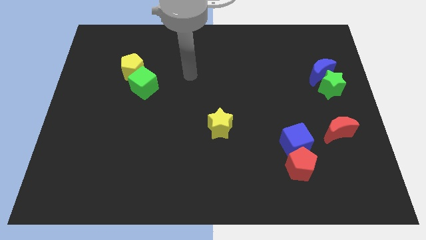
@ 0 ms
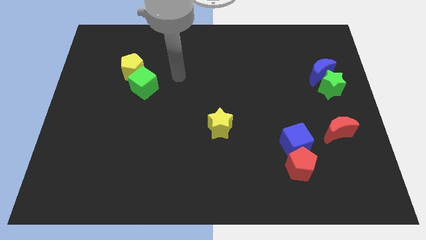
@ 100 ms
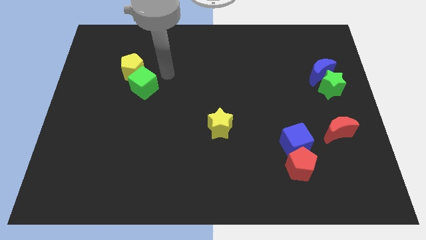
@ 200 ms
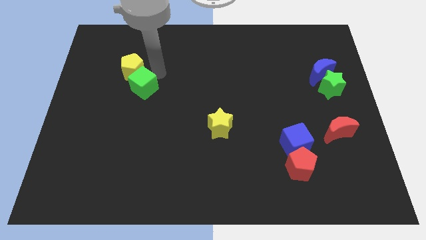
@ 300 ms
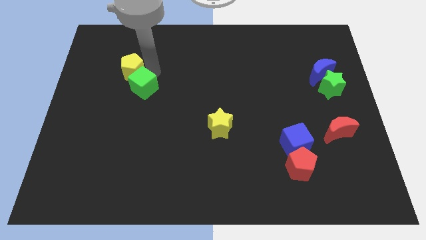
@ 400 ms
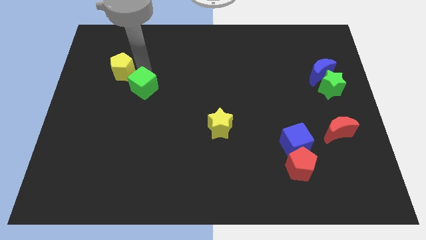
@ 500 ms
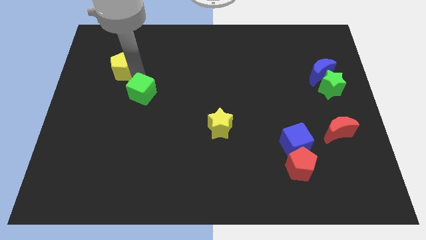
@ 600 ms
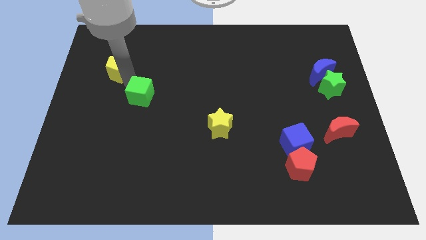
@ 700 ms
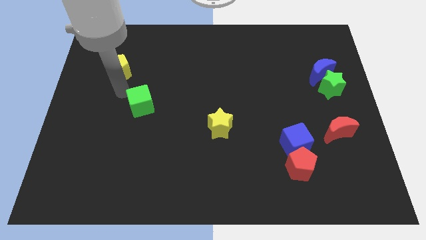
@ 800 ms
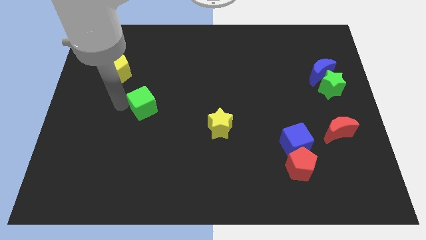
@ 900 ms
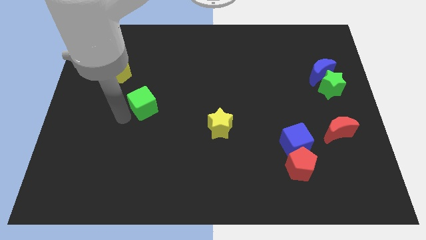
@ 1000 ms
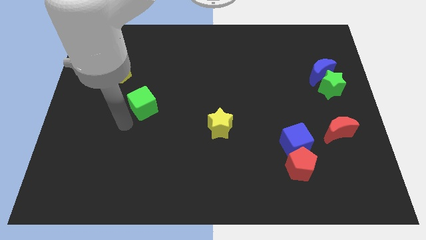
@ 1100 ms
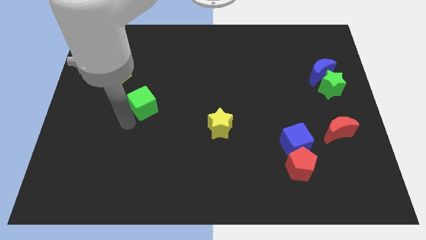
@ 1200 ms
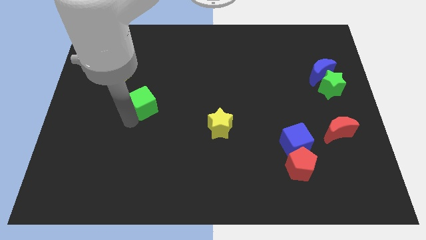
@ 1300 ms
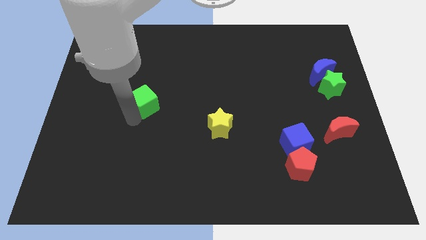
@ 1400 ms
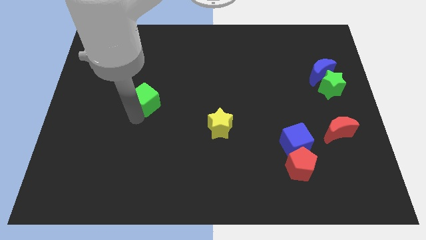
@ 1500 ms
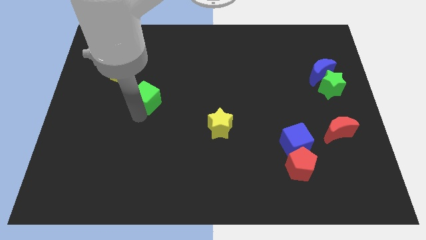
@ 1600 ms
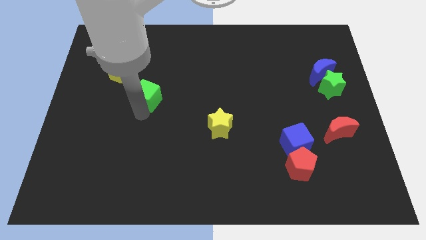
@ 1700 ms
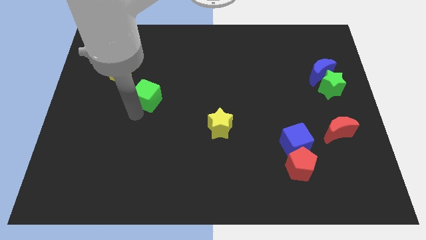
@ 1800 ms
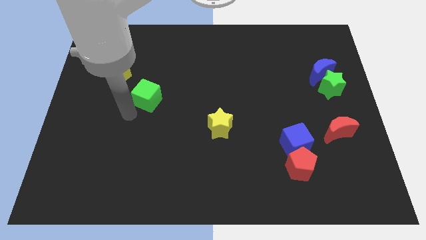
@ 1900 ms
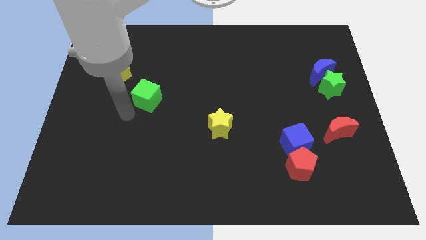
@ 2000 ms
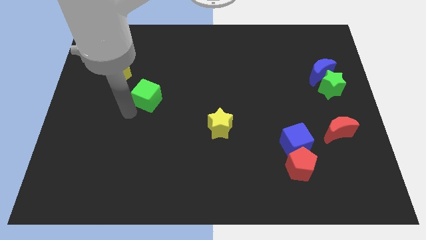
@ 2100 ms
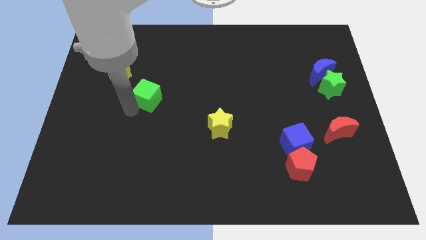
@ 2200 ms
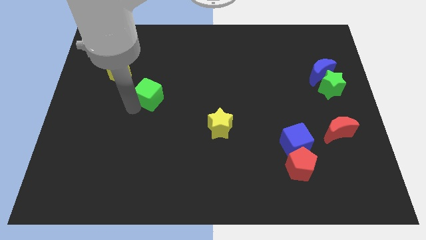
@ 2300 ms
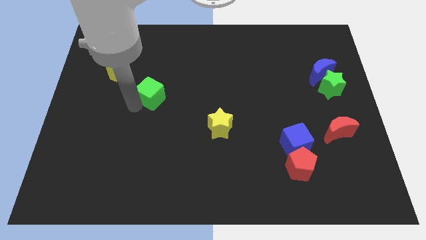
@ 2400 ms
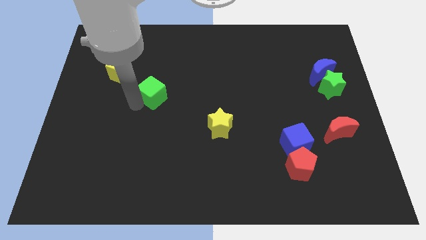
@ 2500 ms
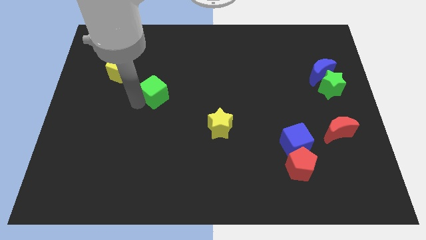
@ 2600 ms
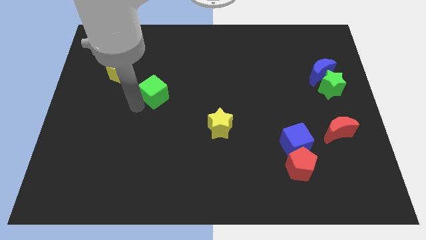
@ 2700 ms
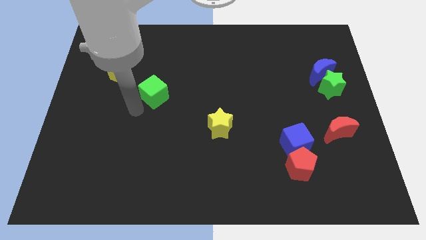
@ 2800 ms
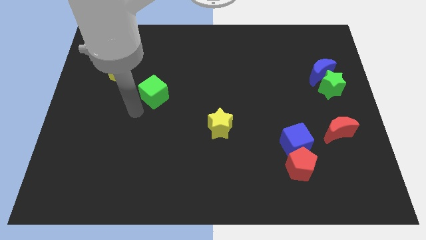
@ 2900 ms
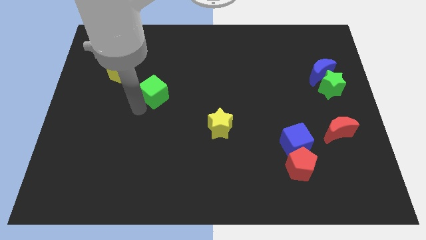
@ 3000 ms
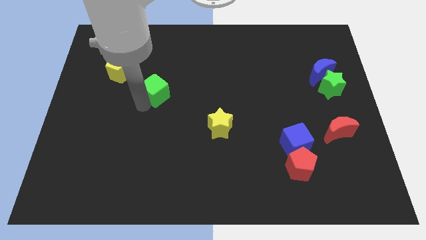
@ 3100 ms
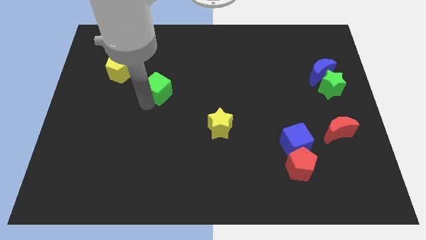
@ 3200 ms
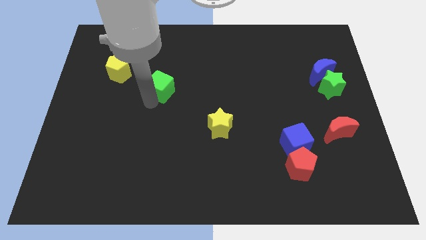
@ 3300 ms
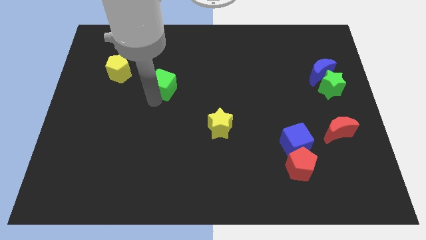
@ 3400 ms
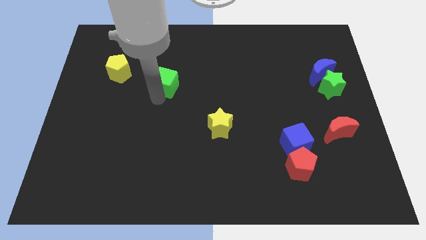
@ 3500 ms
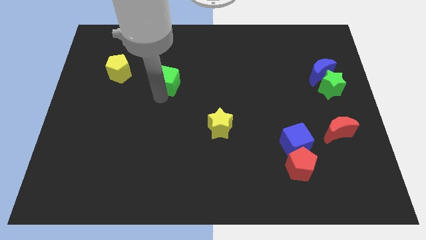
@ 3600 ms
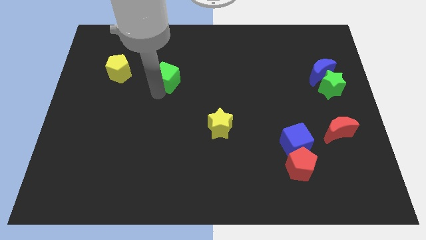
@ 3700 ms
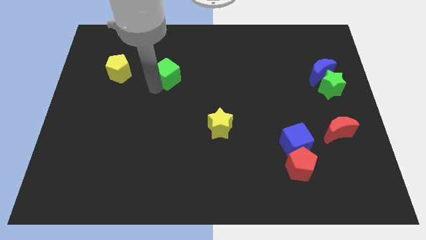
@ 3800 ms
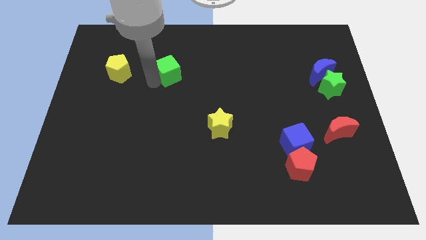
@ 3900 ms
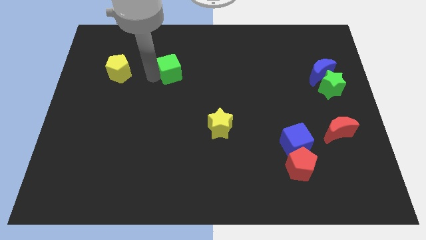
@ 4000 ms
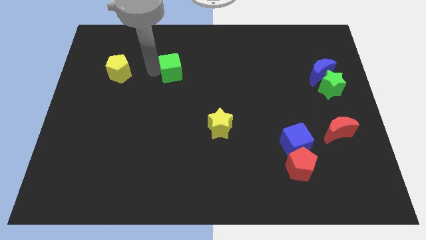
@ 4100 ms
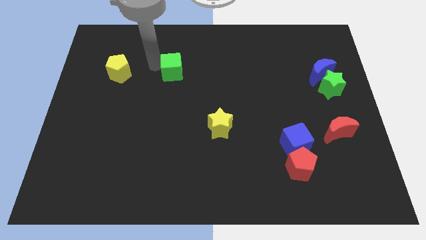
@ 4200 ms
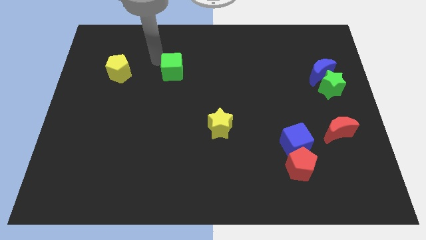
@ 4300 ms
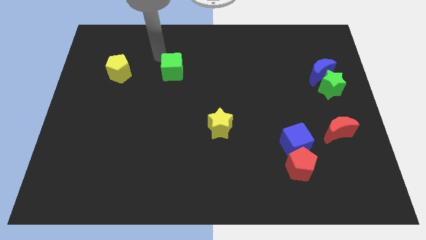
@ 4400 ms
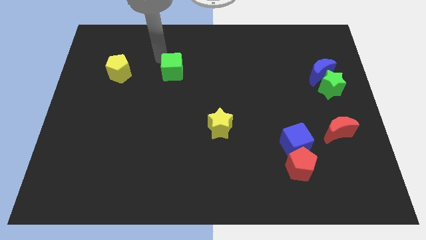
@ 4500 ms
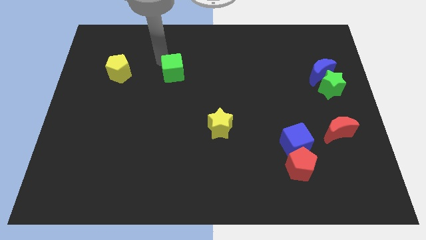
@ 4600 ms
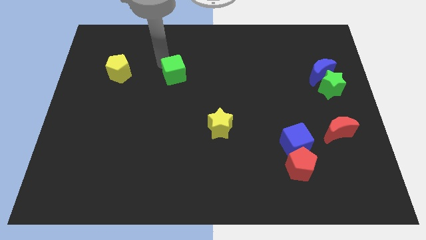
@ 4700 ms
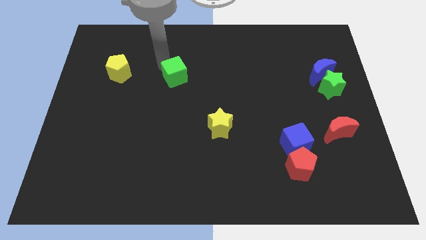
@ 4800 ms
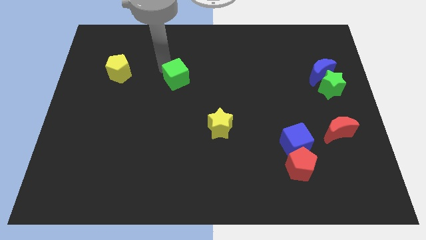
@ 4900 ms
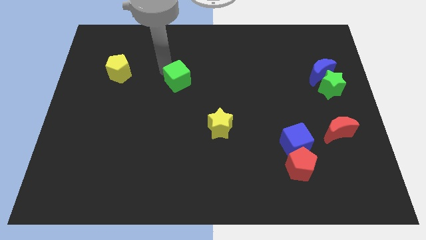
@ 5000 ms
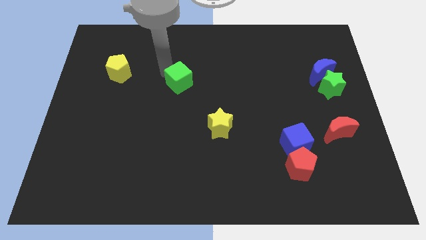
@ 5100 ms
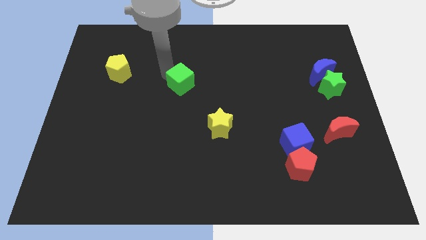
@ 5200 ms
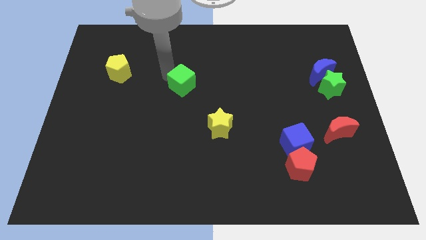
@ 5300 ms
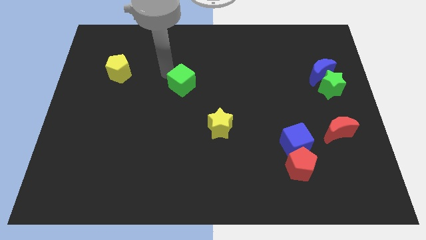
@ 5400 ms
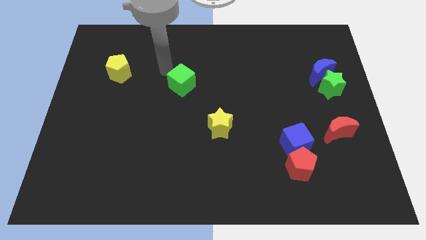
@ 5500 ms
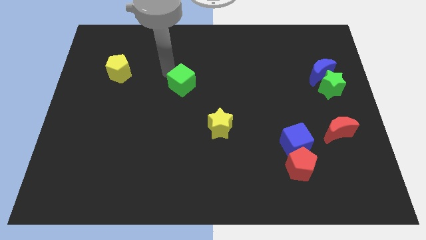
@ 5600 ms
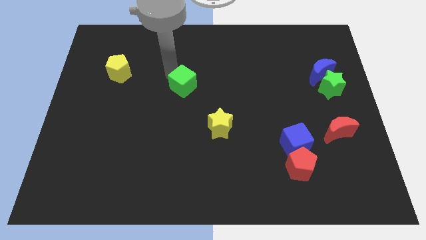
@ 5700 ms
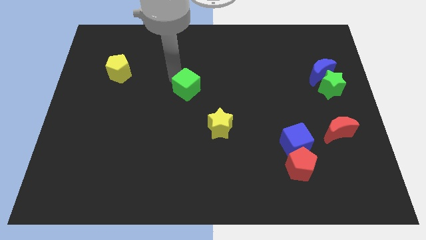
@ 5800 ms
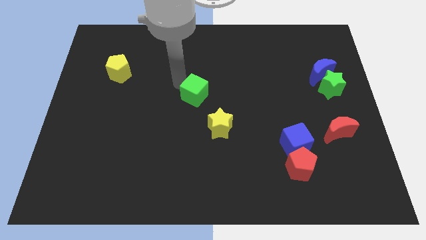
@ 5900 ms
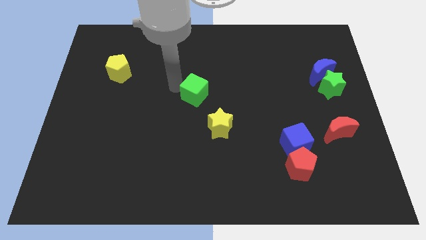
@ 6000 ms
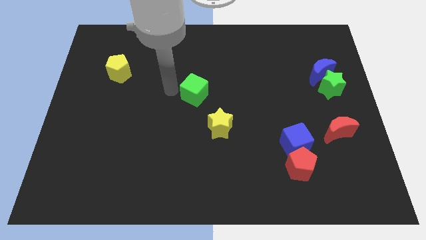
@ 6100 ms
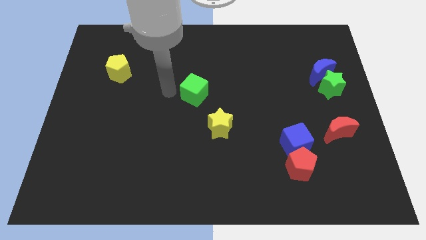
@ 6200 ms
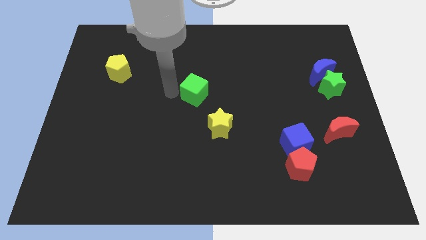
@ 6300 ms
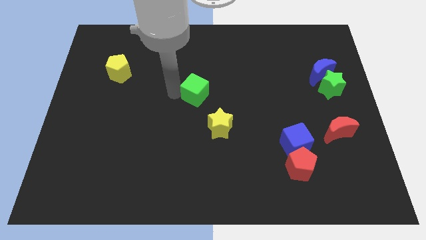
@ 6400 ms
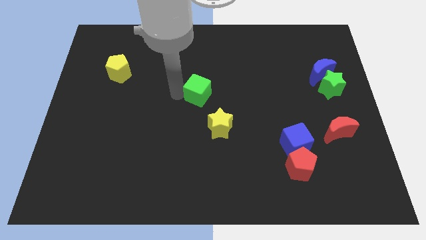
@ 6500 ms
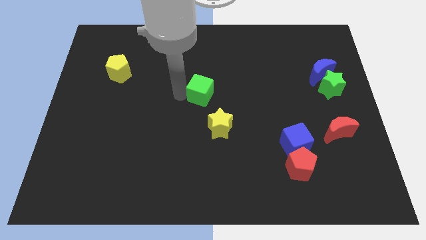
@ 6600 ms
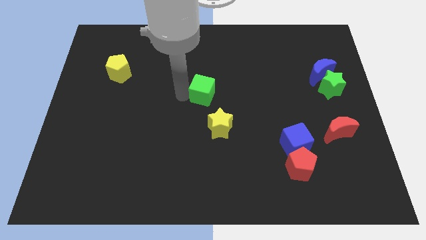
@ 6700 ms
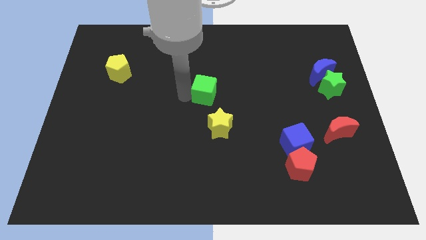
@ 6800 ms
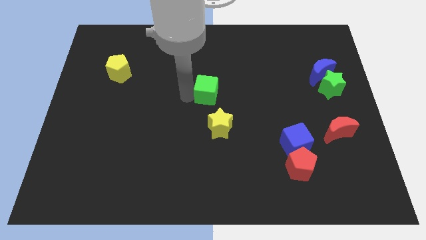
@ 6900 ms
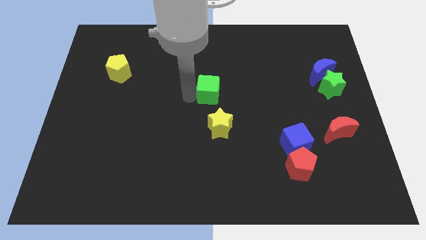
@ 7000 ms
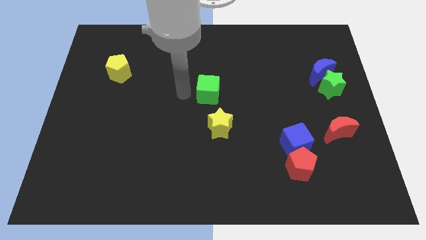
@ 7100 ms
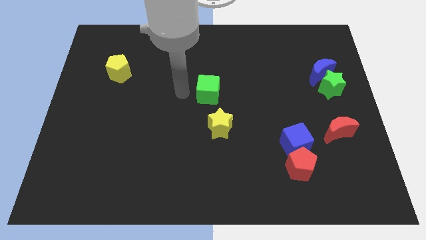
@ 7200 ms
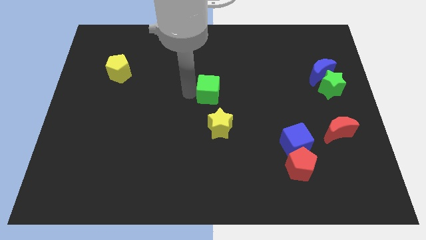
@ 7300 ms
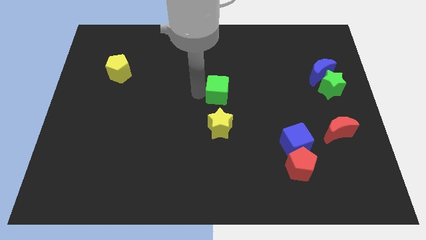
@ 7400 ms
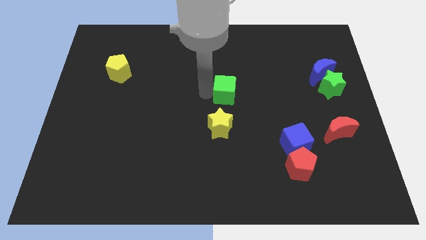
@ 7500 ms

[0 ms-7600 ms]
slide the green cube right

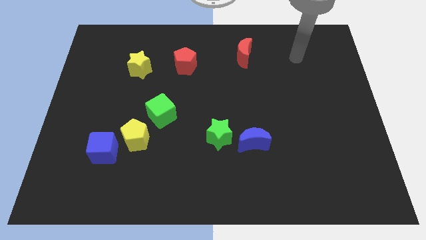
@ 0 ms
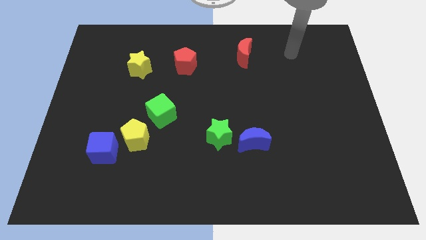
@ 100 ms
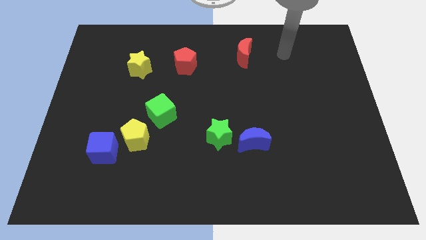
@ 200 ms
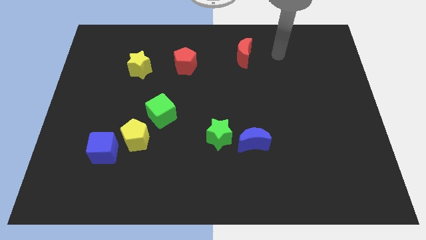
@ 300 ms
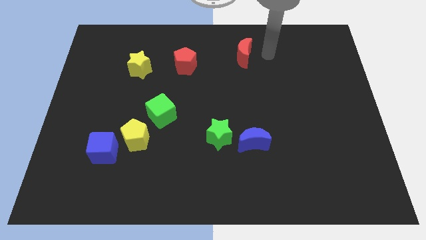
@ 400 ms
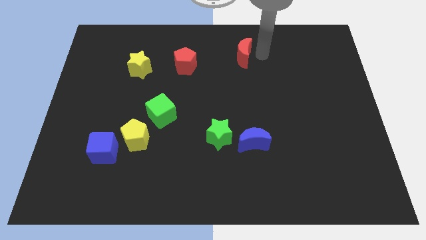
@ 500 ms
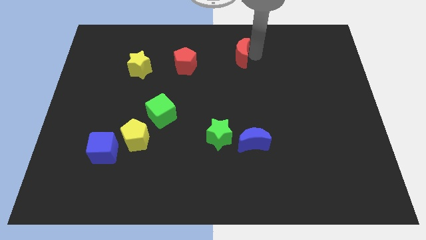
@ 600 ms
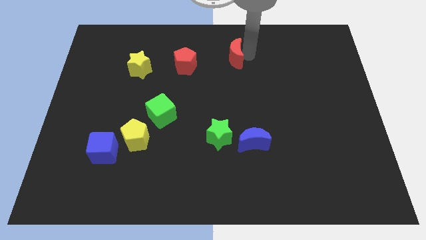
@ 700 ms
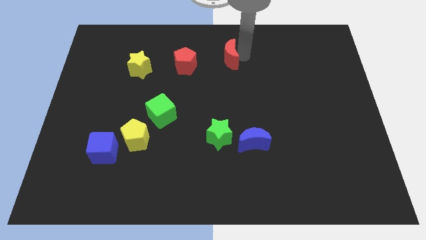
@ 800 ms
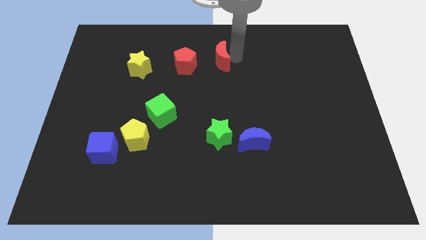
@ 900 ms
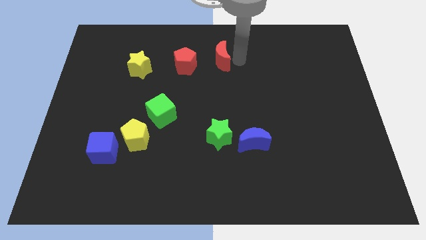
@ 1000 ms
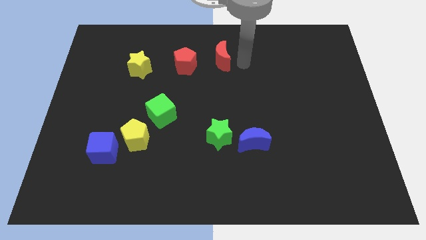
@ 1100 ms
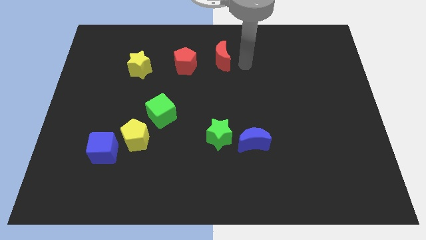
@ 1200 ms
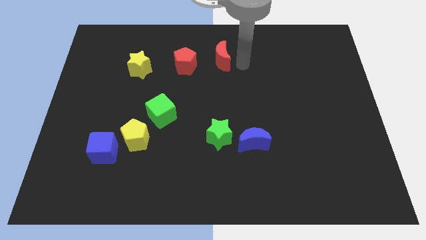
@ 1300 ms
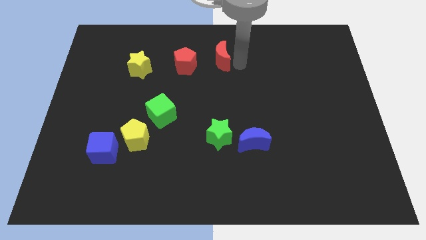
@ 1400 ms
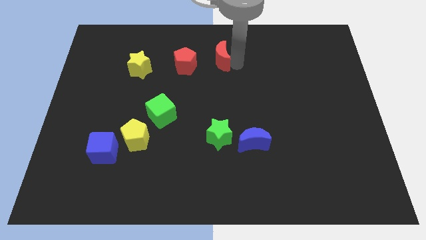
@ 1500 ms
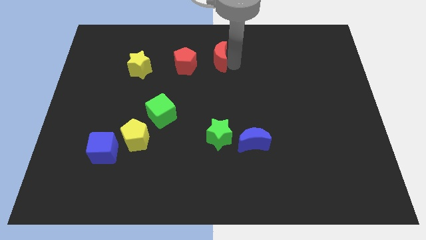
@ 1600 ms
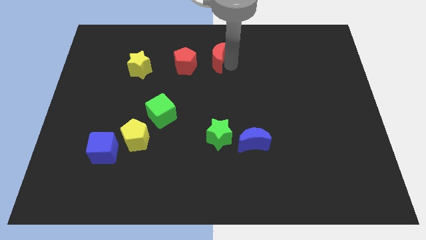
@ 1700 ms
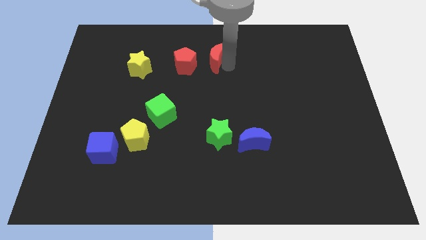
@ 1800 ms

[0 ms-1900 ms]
move the red moon a little bit left
